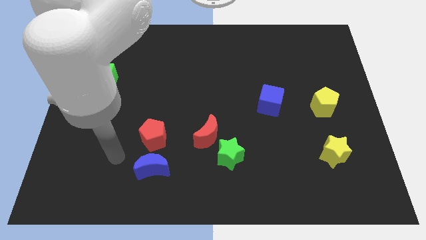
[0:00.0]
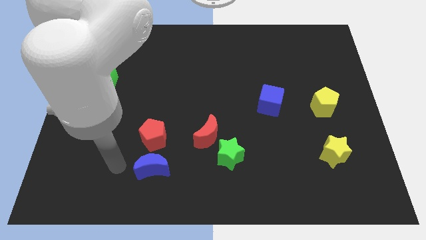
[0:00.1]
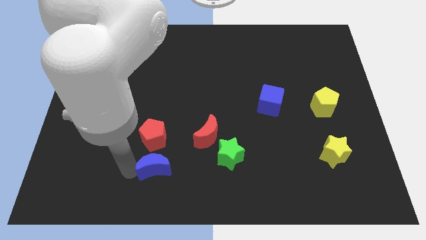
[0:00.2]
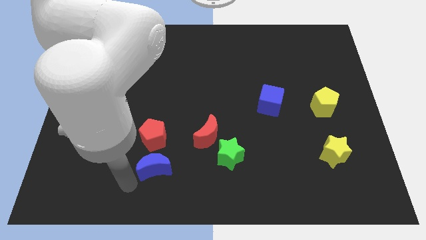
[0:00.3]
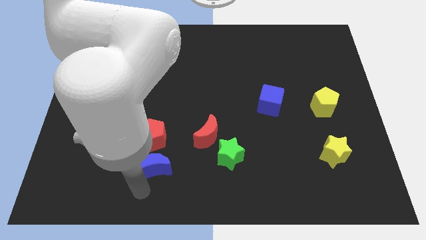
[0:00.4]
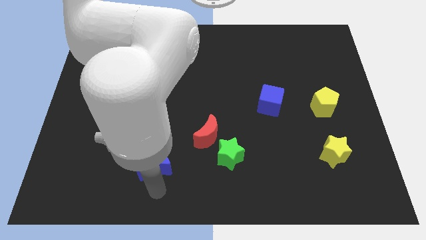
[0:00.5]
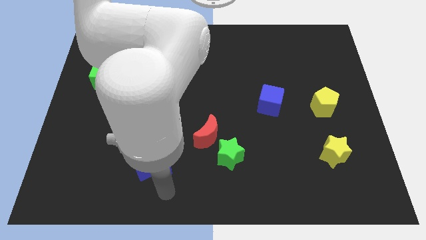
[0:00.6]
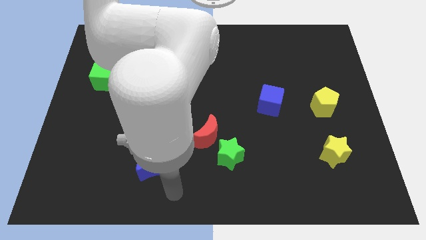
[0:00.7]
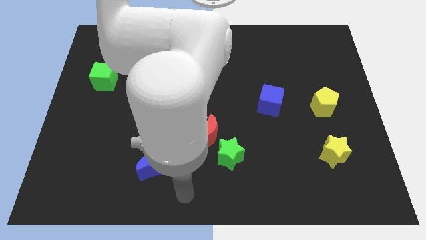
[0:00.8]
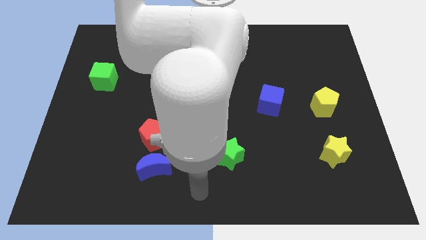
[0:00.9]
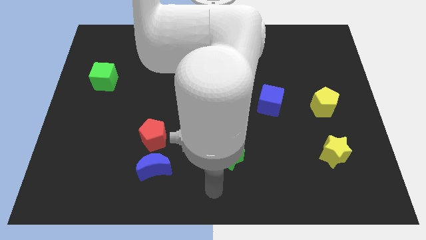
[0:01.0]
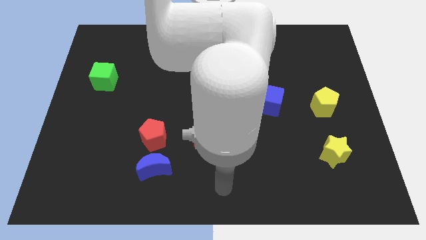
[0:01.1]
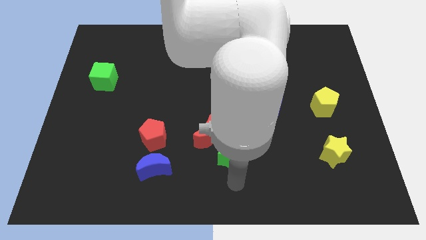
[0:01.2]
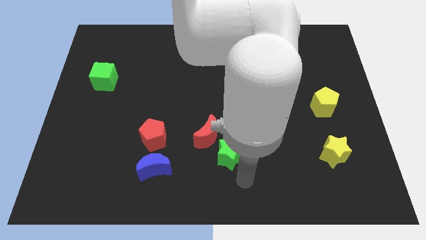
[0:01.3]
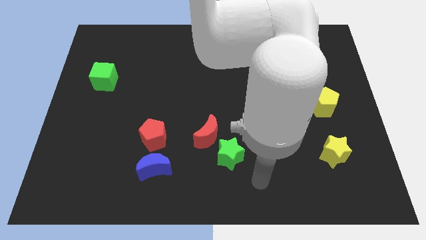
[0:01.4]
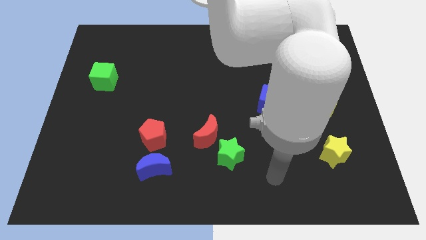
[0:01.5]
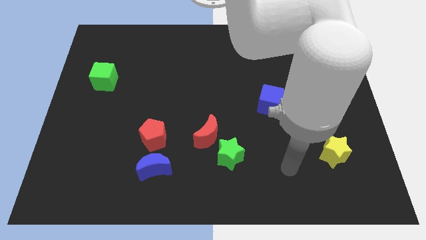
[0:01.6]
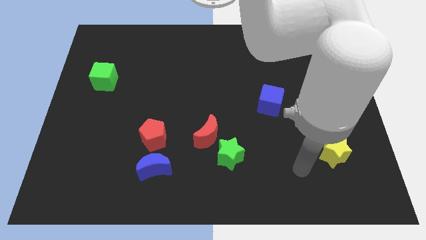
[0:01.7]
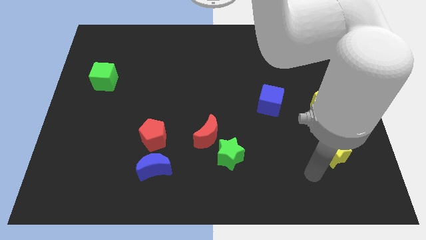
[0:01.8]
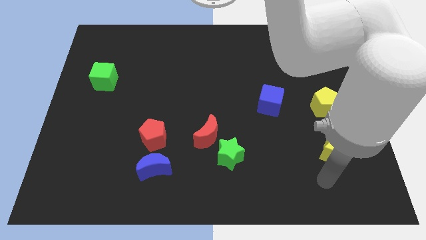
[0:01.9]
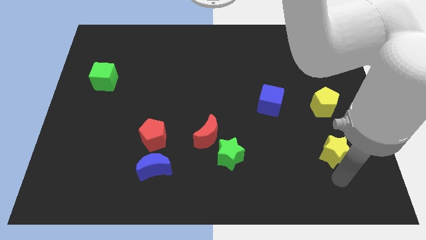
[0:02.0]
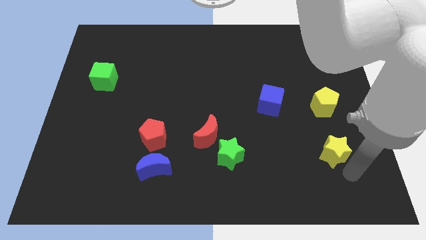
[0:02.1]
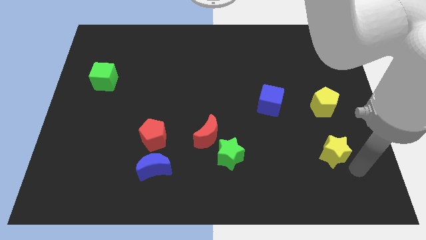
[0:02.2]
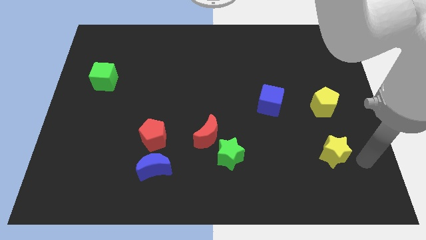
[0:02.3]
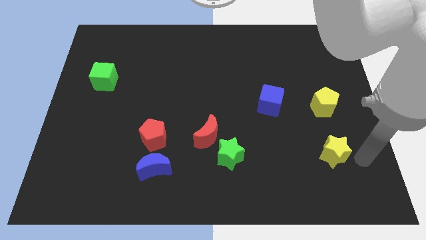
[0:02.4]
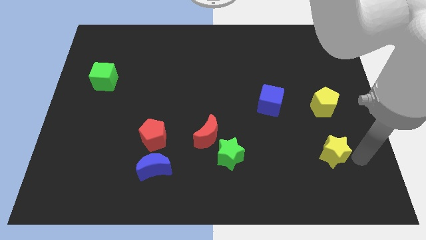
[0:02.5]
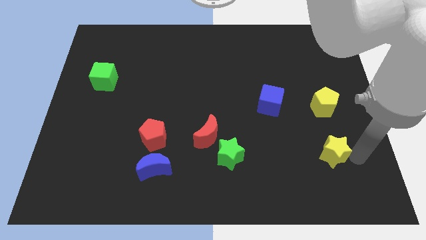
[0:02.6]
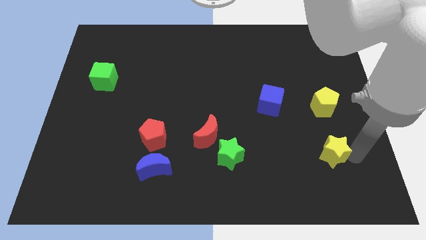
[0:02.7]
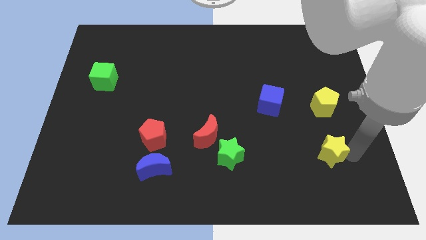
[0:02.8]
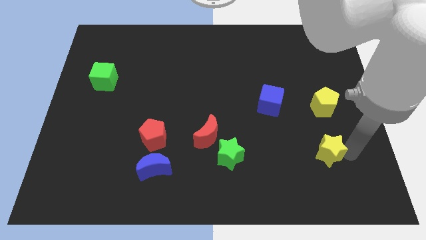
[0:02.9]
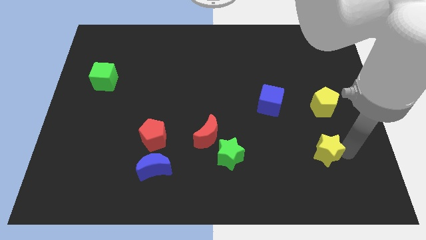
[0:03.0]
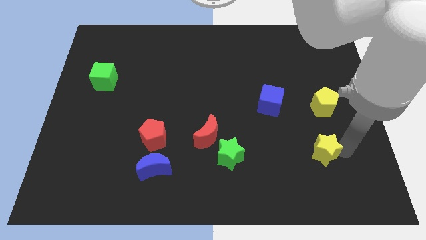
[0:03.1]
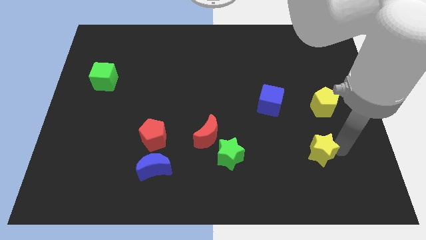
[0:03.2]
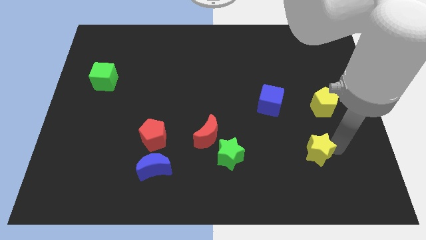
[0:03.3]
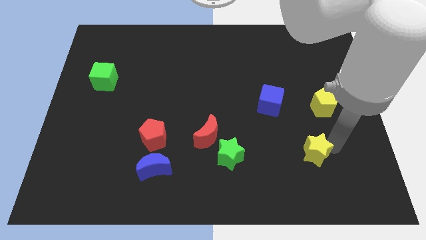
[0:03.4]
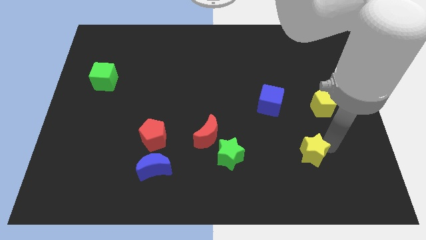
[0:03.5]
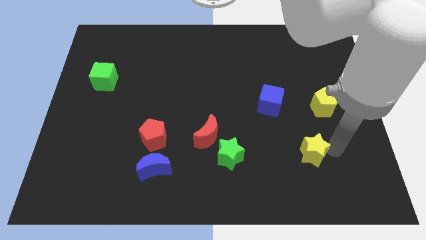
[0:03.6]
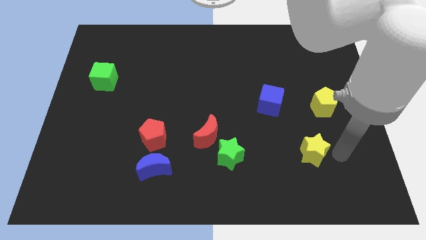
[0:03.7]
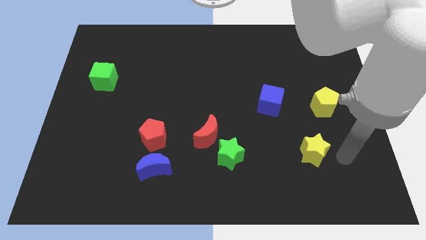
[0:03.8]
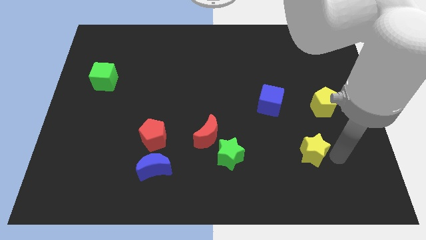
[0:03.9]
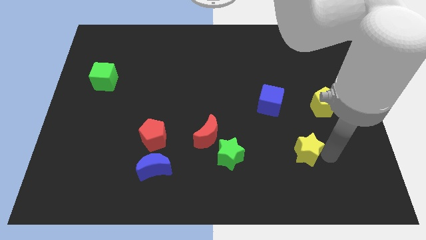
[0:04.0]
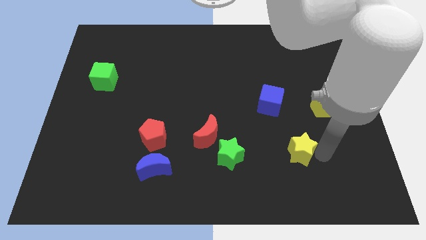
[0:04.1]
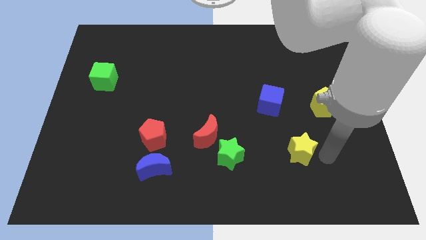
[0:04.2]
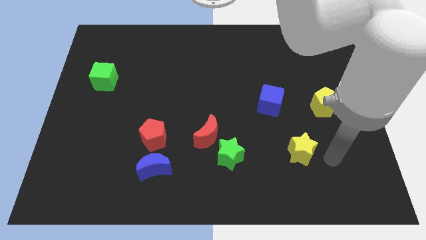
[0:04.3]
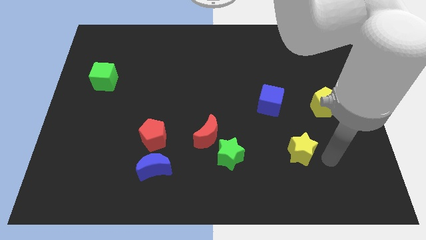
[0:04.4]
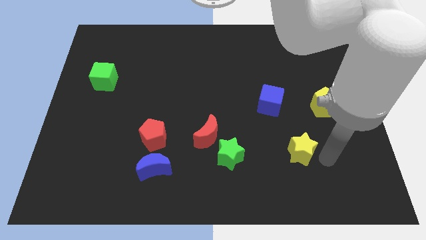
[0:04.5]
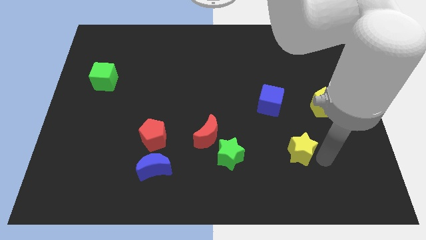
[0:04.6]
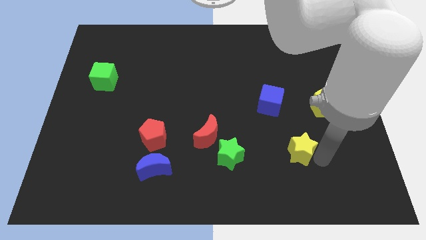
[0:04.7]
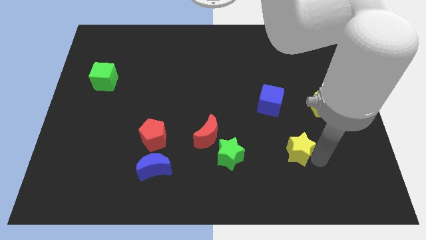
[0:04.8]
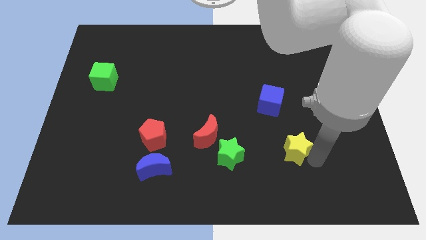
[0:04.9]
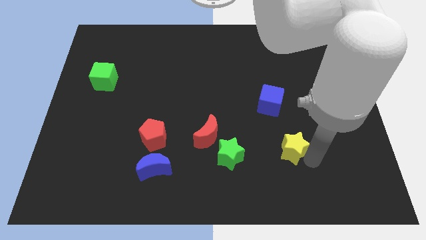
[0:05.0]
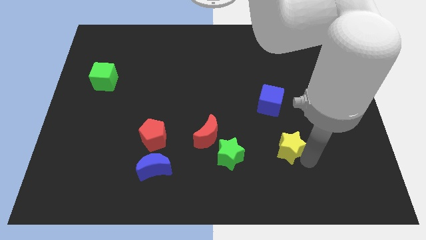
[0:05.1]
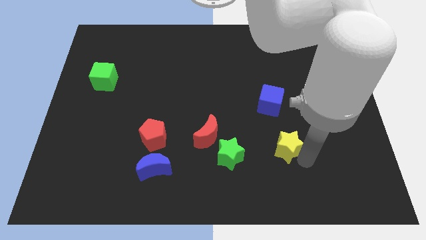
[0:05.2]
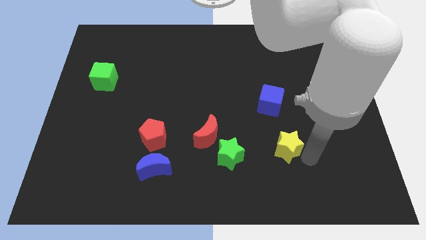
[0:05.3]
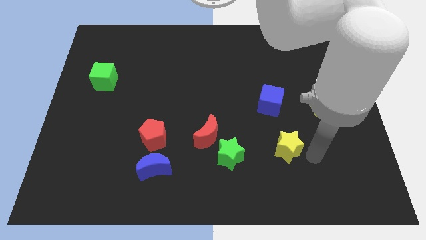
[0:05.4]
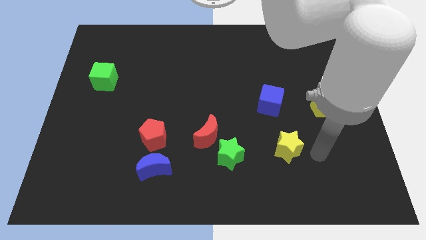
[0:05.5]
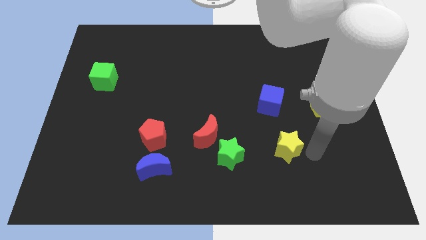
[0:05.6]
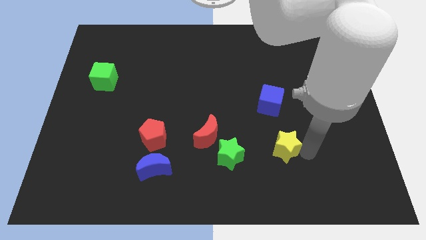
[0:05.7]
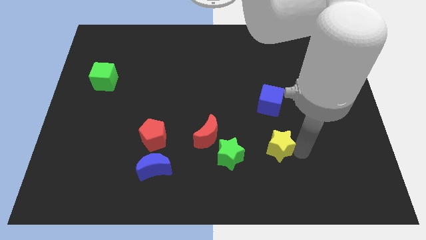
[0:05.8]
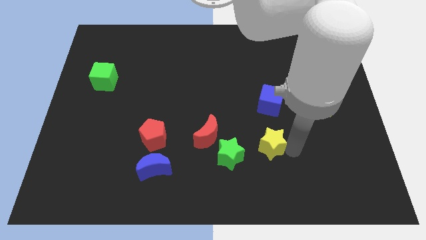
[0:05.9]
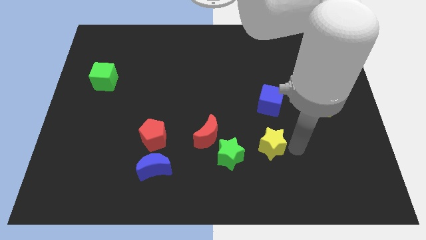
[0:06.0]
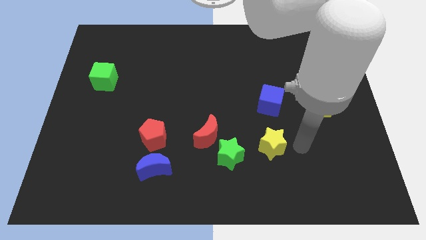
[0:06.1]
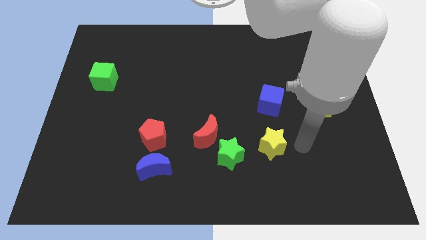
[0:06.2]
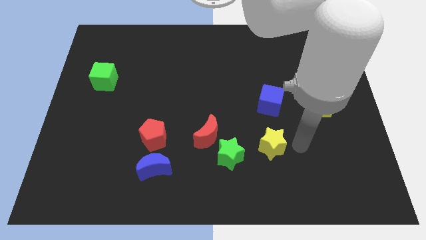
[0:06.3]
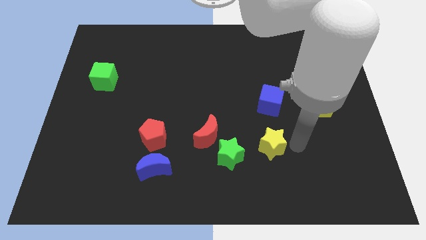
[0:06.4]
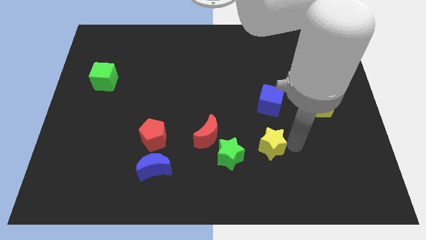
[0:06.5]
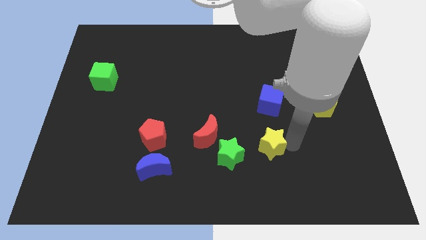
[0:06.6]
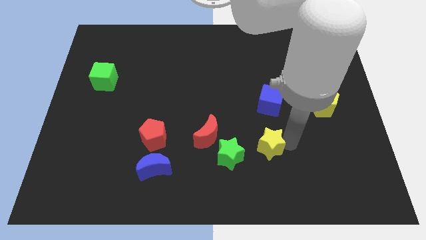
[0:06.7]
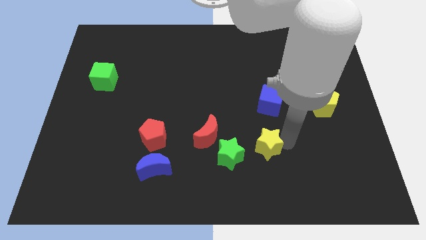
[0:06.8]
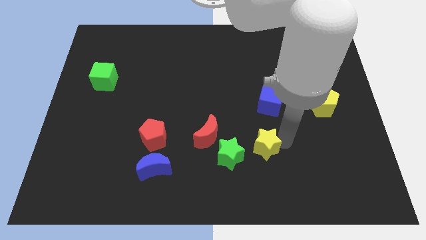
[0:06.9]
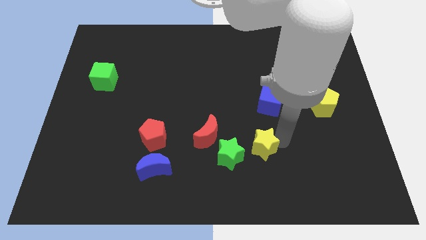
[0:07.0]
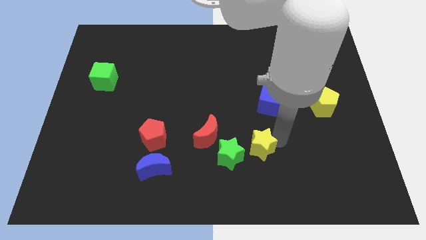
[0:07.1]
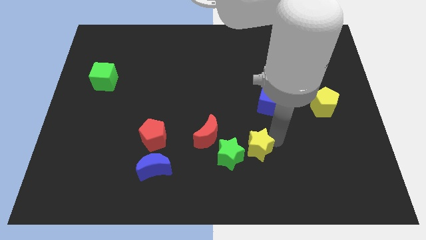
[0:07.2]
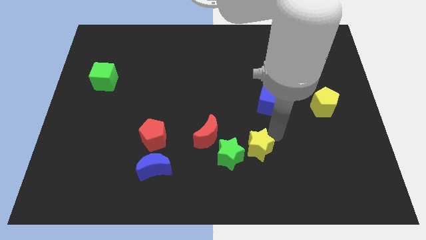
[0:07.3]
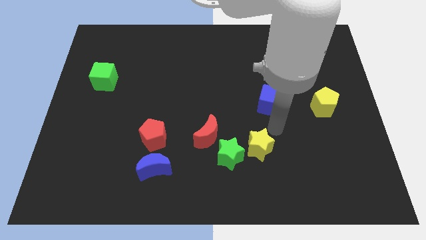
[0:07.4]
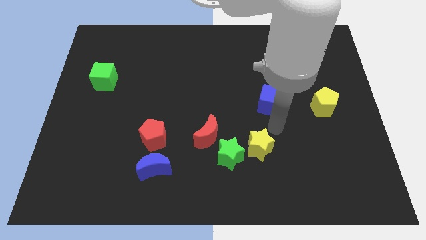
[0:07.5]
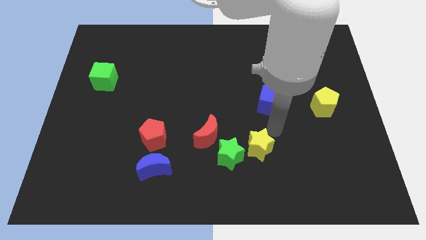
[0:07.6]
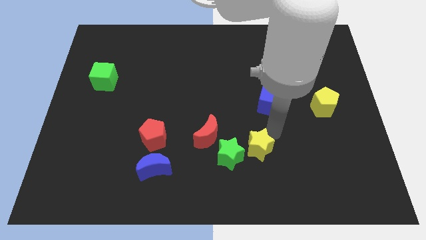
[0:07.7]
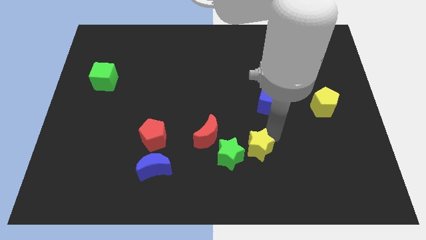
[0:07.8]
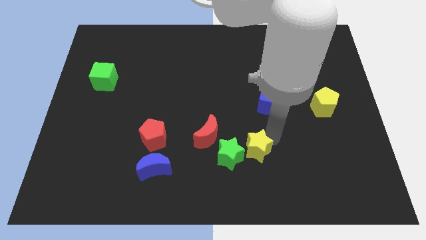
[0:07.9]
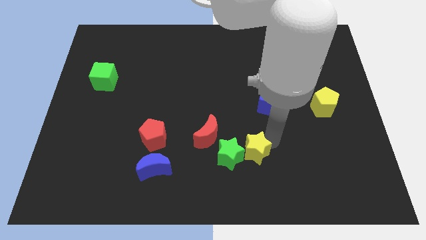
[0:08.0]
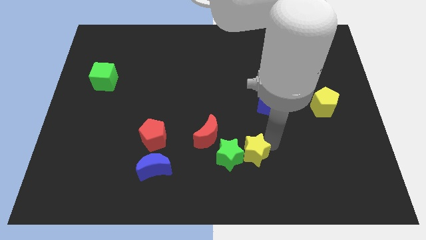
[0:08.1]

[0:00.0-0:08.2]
push the yellow star to the bottom right side of the red moon
